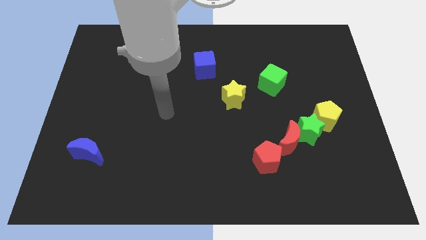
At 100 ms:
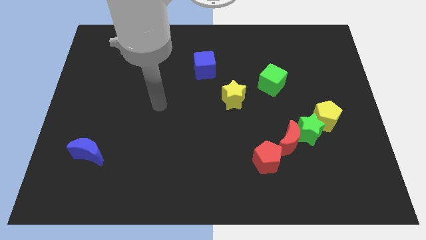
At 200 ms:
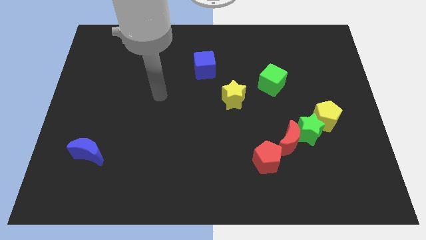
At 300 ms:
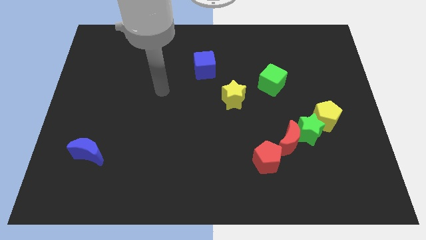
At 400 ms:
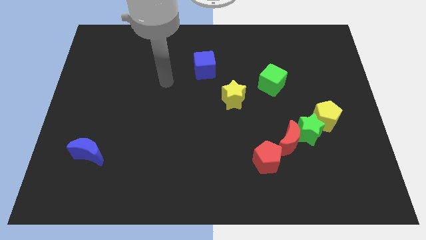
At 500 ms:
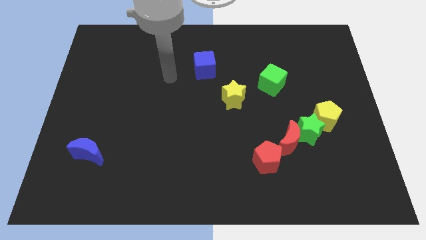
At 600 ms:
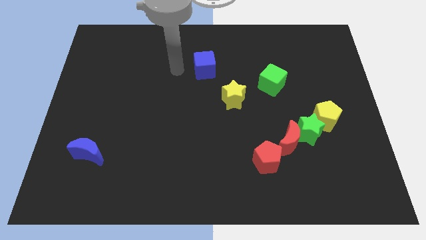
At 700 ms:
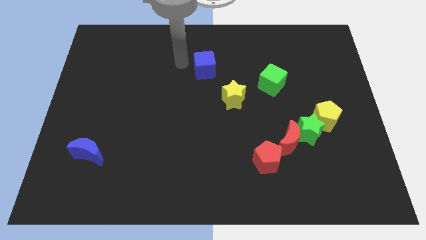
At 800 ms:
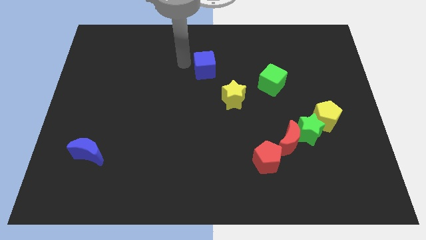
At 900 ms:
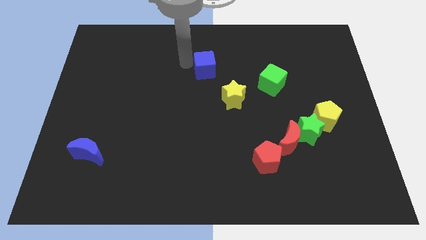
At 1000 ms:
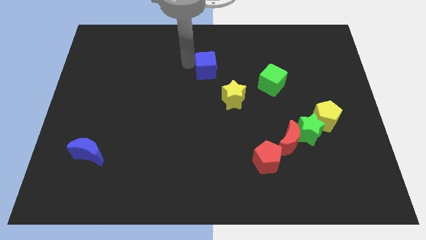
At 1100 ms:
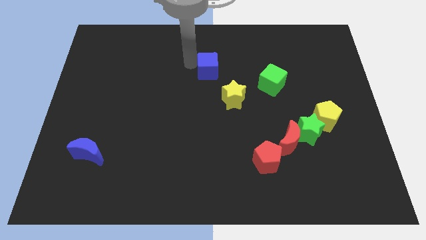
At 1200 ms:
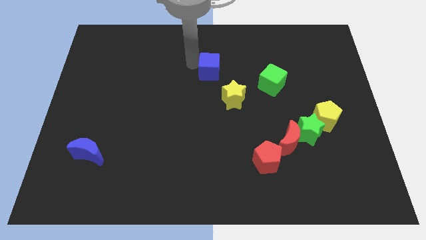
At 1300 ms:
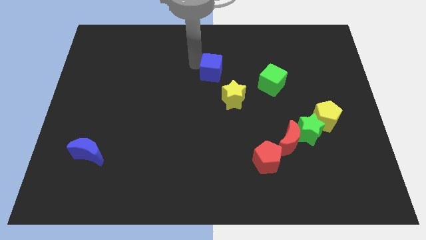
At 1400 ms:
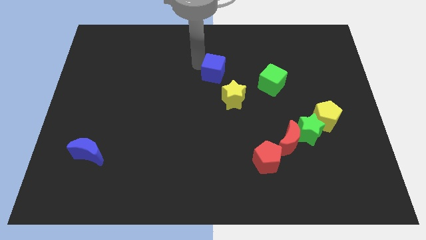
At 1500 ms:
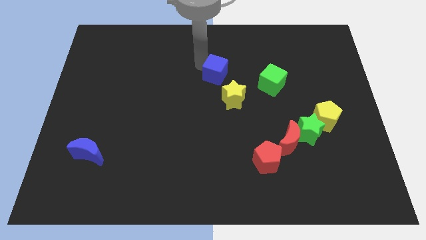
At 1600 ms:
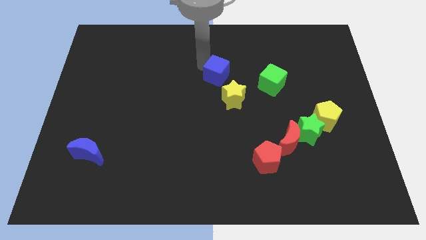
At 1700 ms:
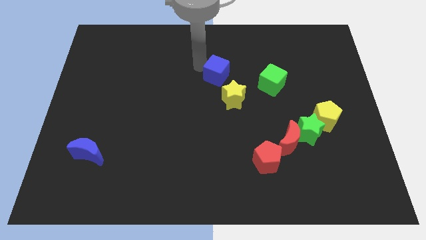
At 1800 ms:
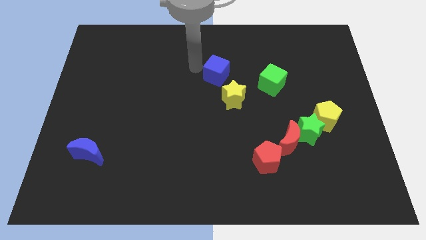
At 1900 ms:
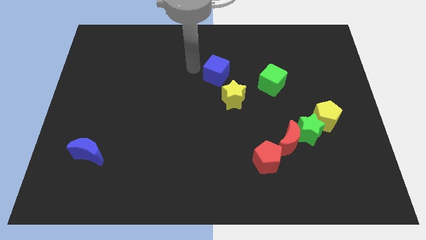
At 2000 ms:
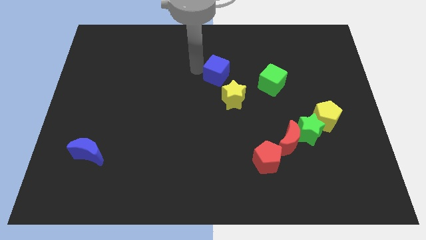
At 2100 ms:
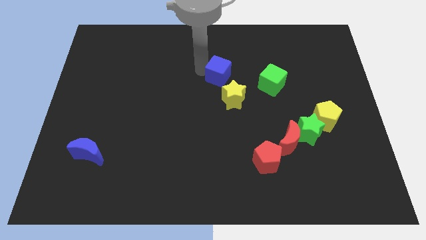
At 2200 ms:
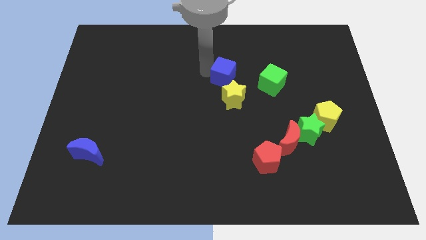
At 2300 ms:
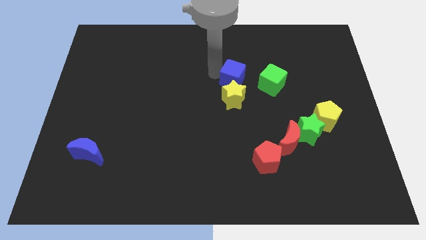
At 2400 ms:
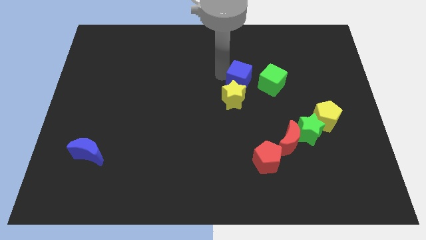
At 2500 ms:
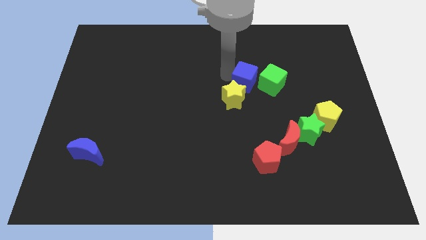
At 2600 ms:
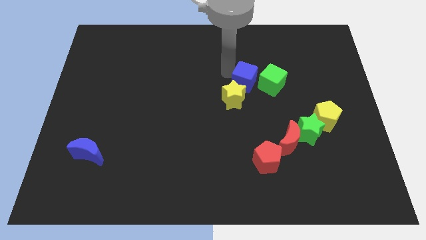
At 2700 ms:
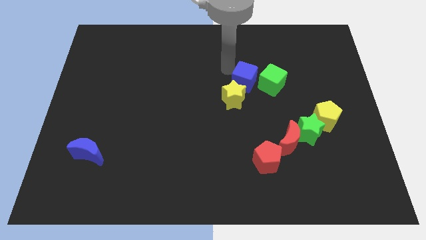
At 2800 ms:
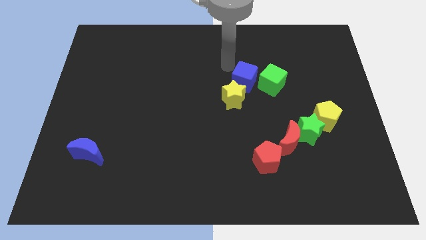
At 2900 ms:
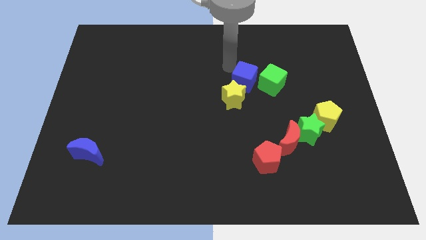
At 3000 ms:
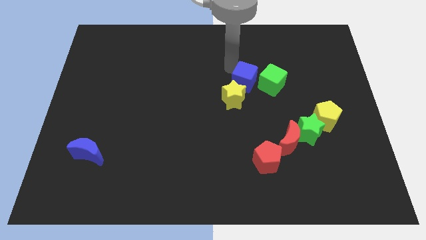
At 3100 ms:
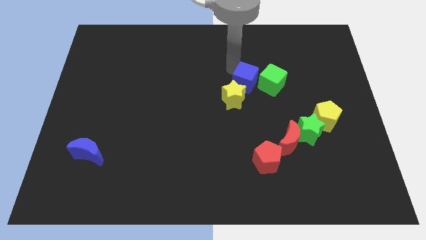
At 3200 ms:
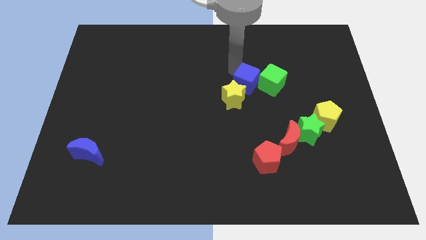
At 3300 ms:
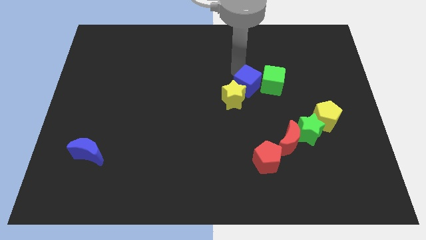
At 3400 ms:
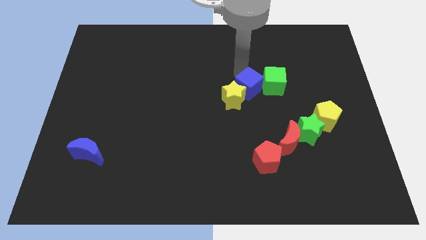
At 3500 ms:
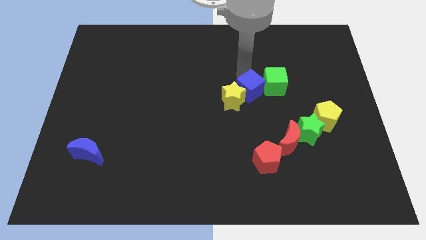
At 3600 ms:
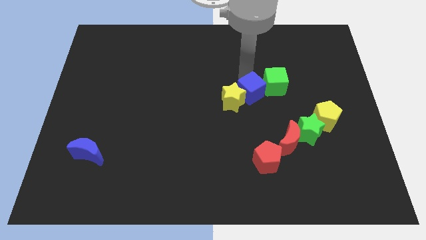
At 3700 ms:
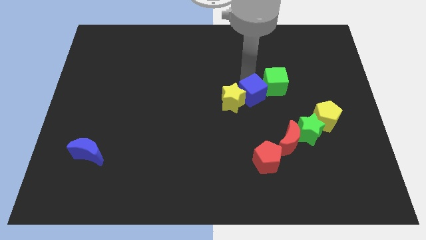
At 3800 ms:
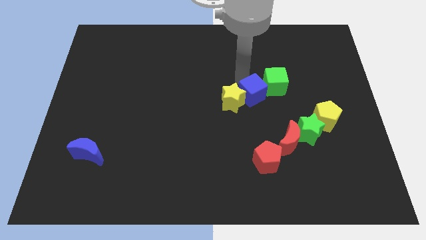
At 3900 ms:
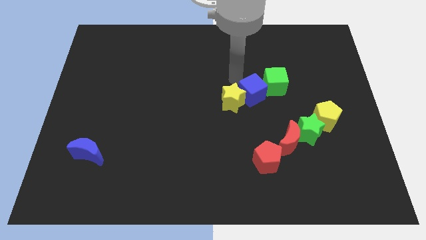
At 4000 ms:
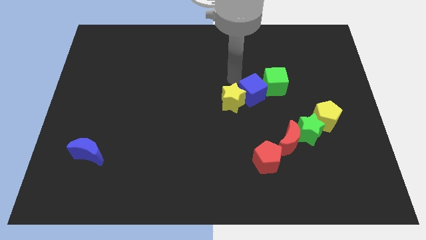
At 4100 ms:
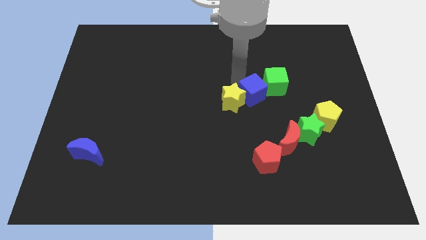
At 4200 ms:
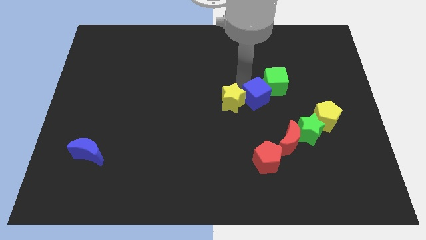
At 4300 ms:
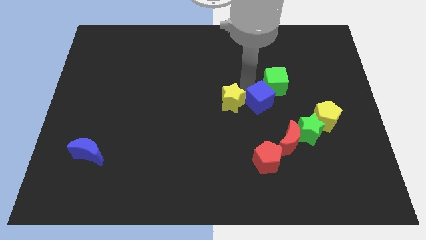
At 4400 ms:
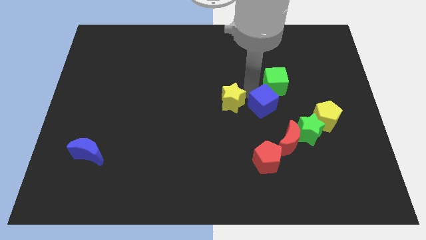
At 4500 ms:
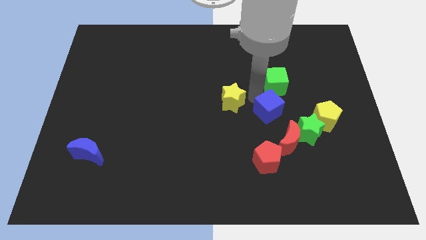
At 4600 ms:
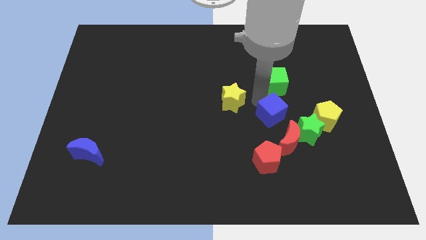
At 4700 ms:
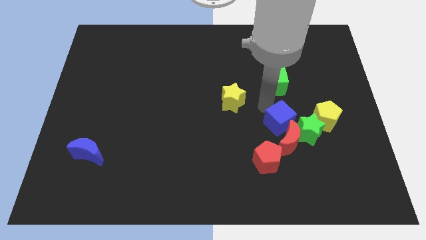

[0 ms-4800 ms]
slide the blue cube close to the red moon

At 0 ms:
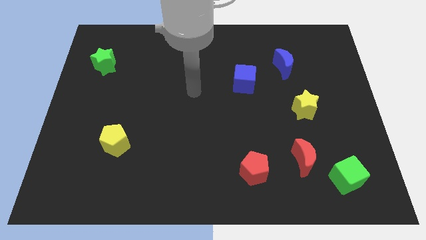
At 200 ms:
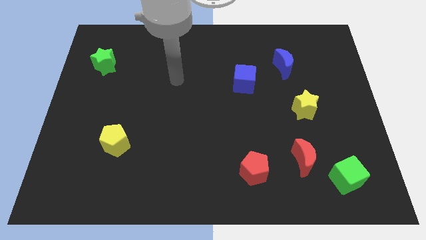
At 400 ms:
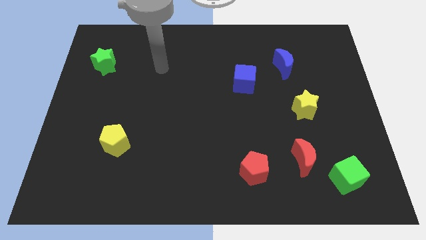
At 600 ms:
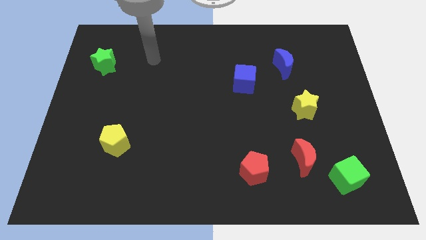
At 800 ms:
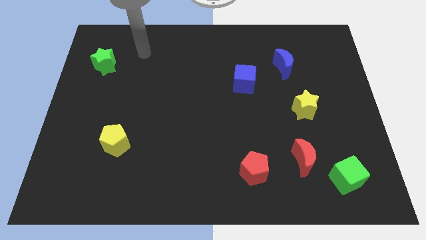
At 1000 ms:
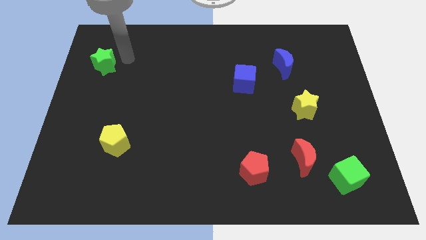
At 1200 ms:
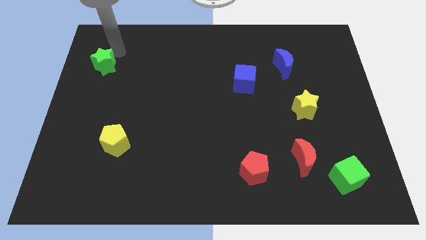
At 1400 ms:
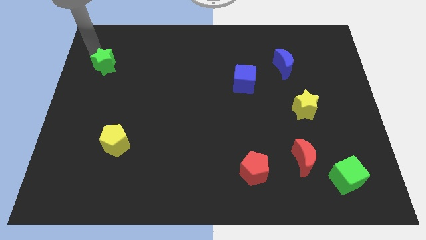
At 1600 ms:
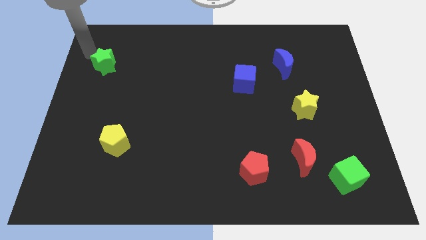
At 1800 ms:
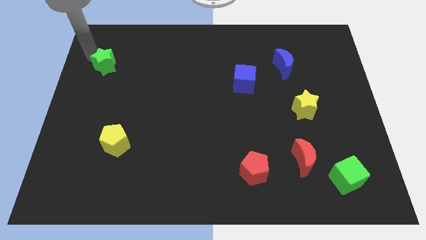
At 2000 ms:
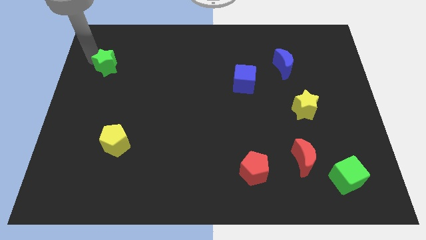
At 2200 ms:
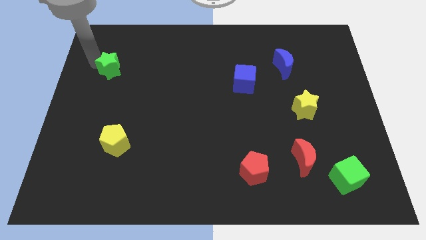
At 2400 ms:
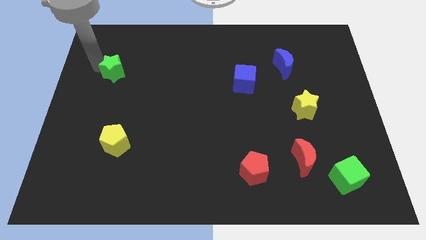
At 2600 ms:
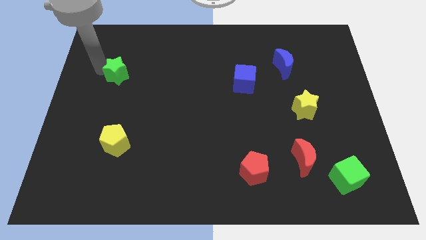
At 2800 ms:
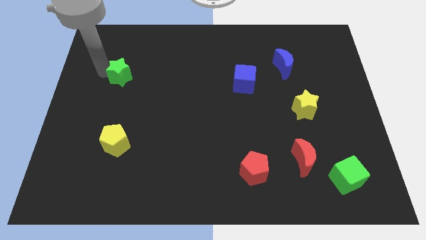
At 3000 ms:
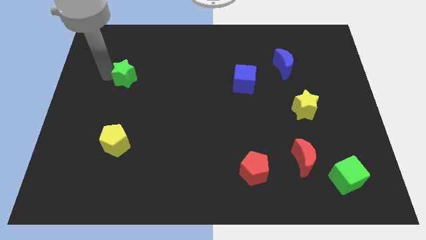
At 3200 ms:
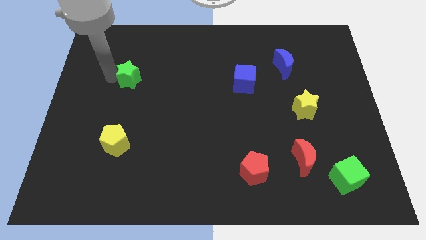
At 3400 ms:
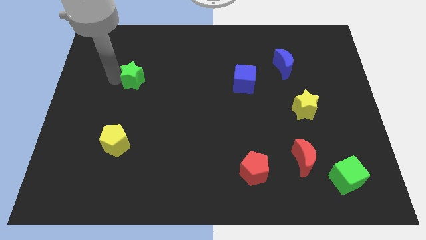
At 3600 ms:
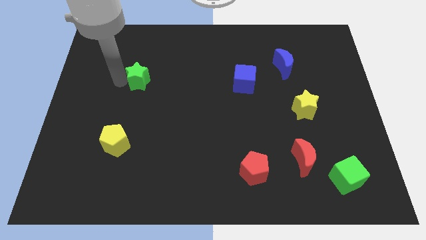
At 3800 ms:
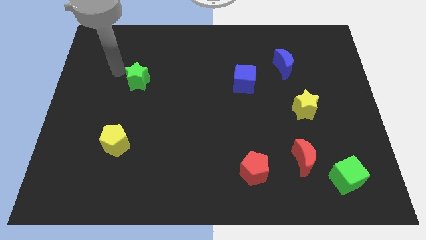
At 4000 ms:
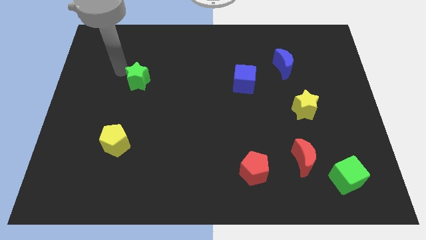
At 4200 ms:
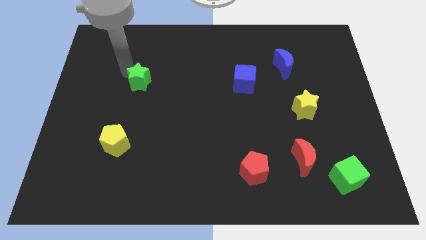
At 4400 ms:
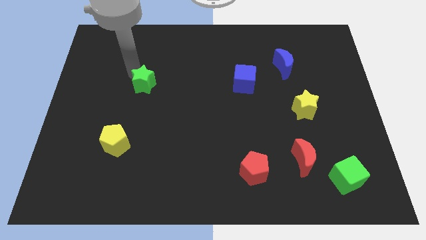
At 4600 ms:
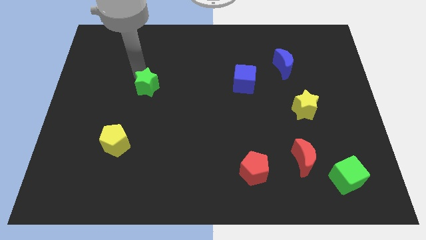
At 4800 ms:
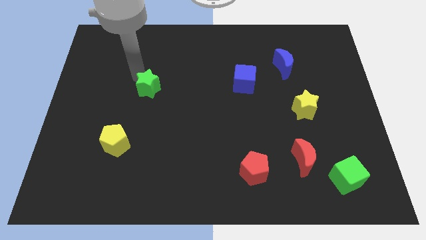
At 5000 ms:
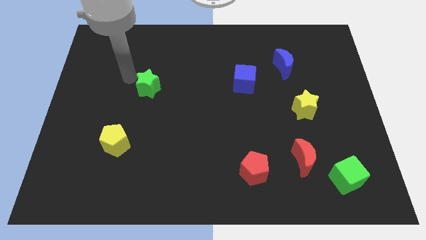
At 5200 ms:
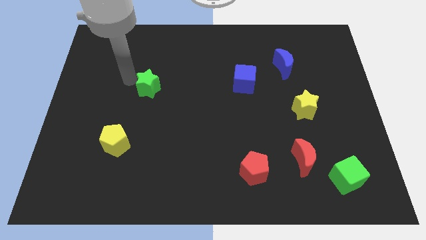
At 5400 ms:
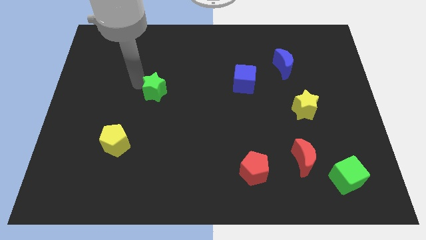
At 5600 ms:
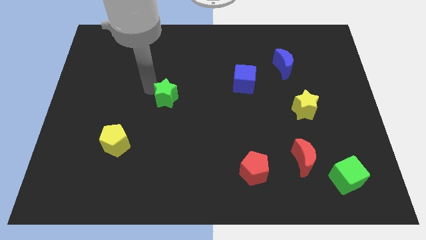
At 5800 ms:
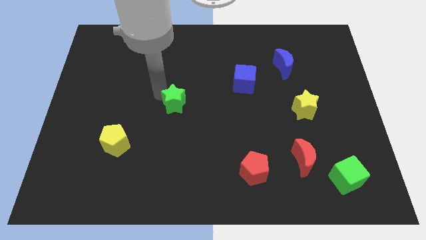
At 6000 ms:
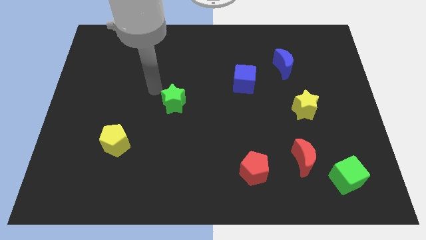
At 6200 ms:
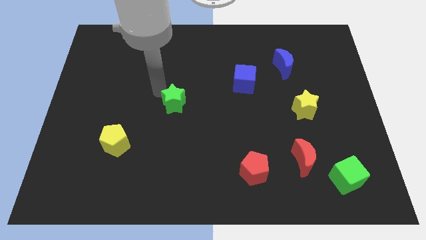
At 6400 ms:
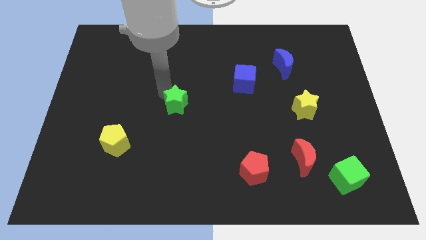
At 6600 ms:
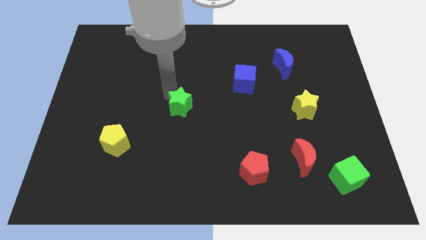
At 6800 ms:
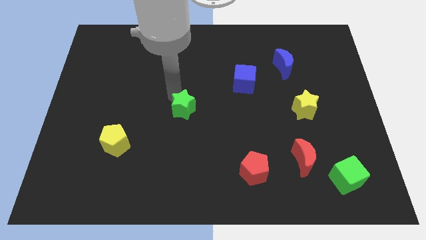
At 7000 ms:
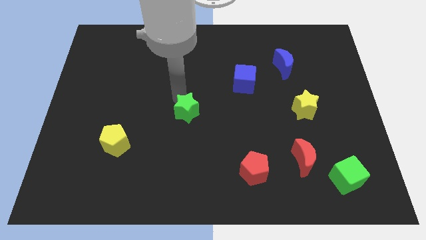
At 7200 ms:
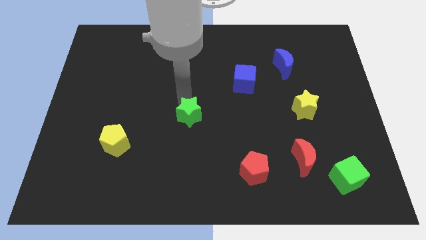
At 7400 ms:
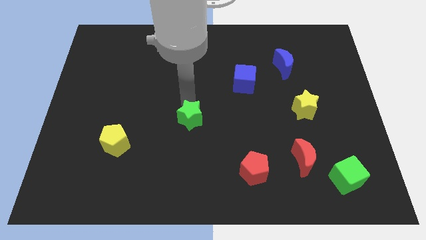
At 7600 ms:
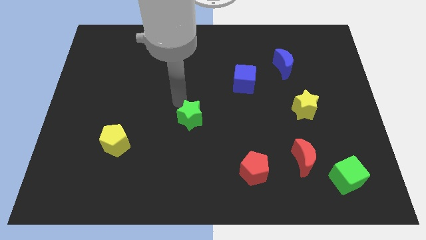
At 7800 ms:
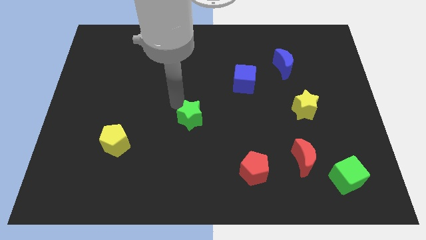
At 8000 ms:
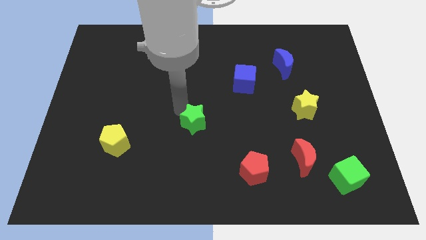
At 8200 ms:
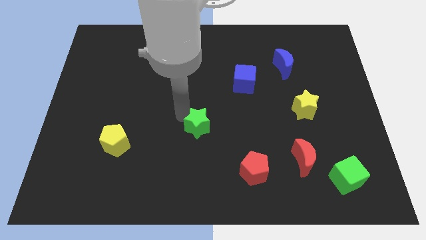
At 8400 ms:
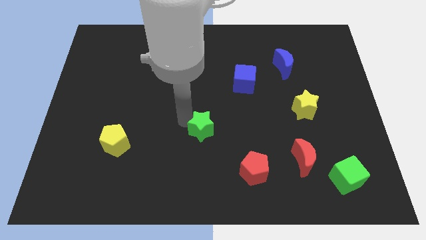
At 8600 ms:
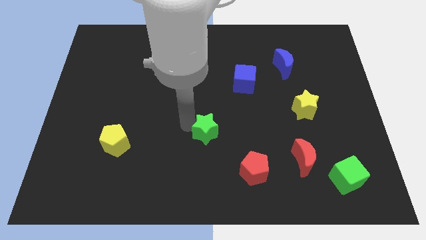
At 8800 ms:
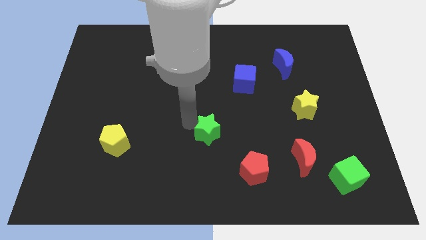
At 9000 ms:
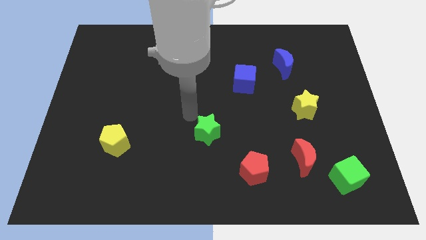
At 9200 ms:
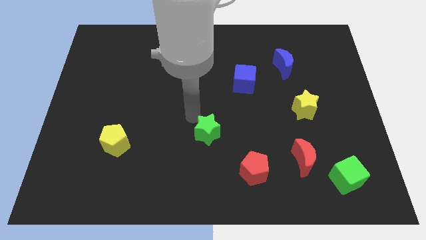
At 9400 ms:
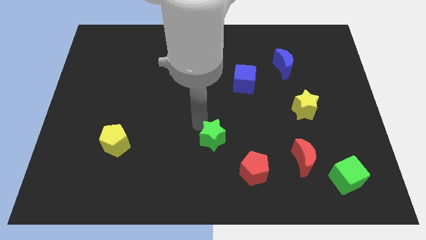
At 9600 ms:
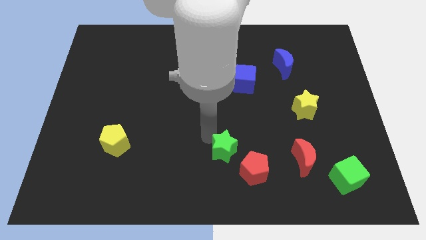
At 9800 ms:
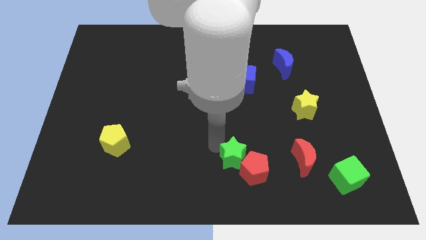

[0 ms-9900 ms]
move the green star close to the red pentagon
